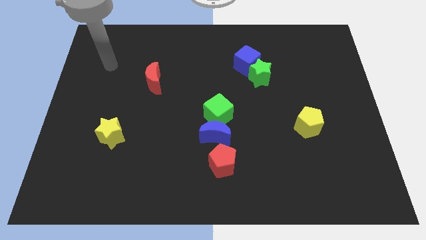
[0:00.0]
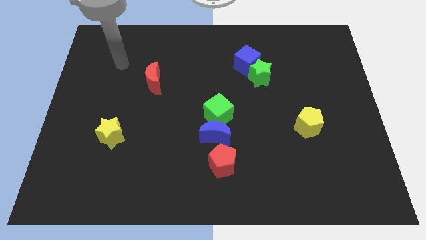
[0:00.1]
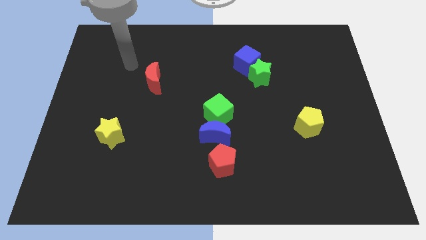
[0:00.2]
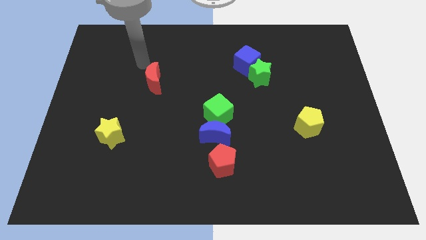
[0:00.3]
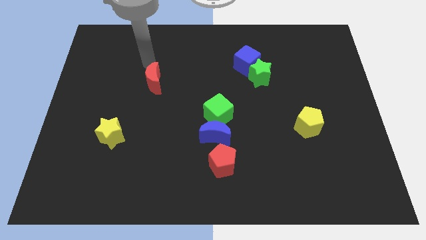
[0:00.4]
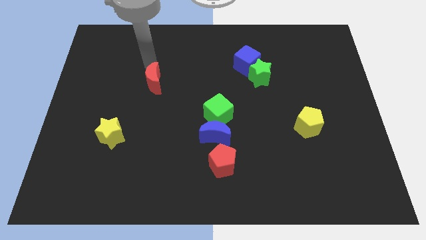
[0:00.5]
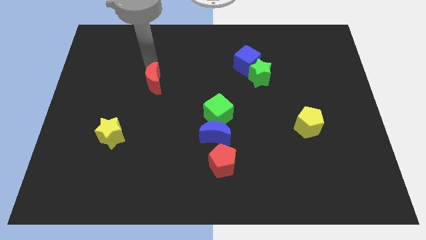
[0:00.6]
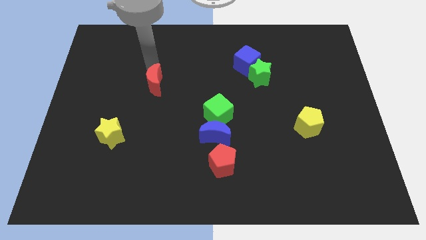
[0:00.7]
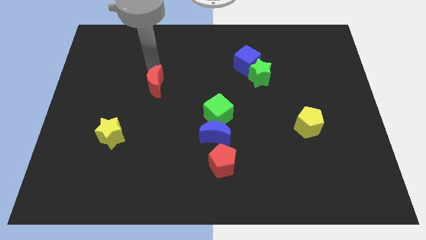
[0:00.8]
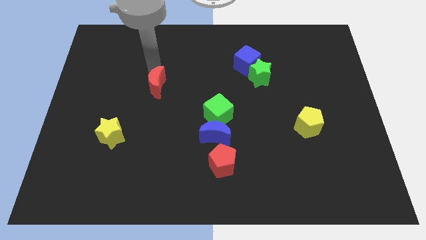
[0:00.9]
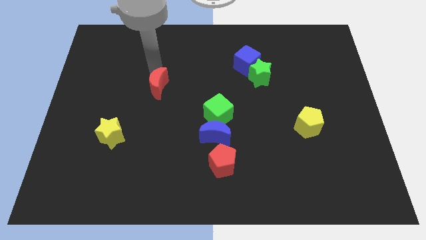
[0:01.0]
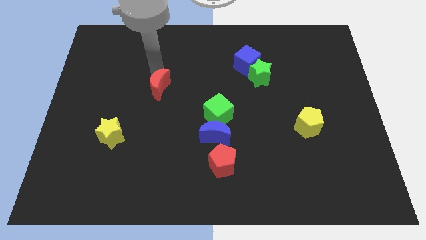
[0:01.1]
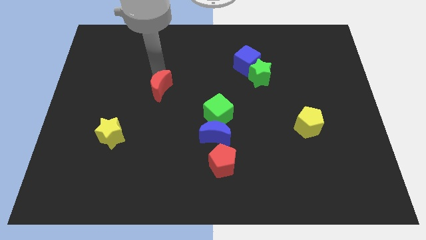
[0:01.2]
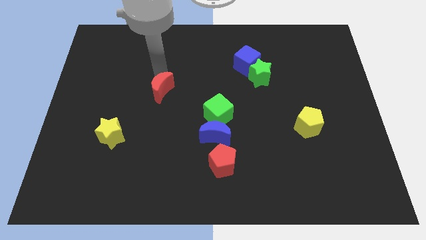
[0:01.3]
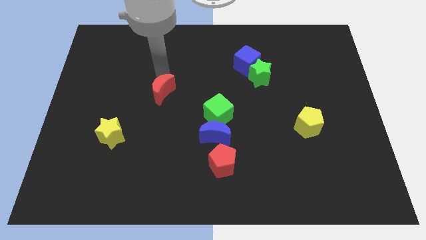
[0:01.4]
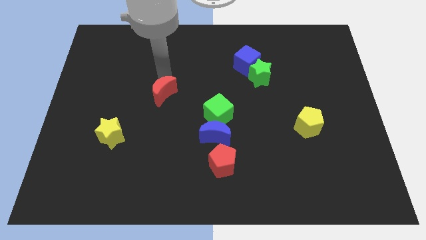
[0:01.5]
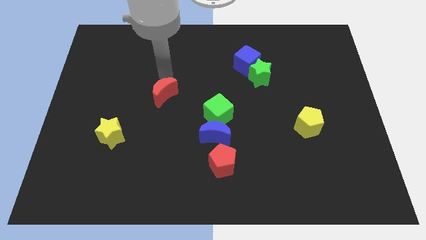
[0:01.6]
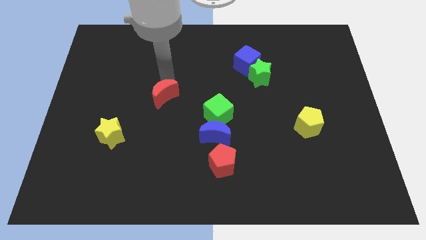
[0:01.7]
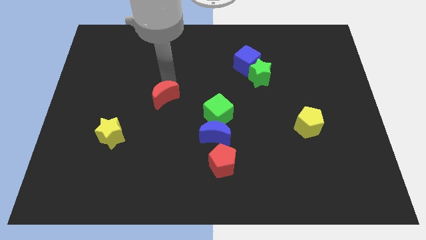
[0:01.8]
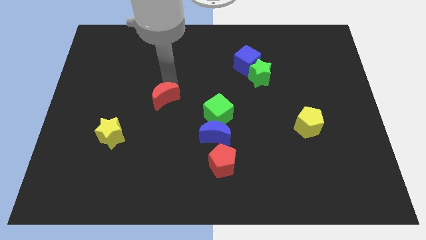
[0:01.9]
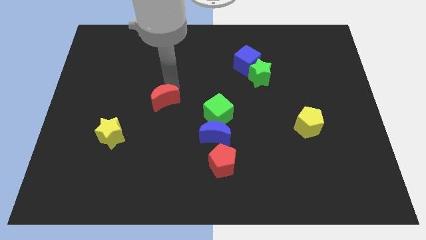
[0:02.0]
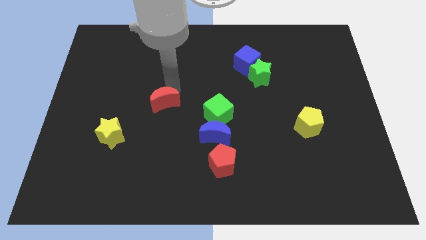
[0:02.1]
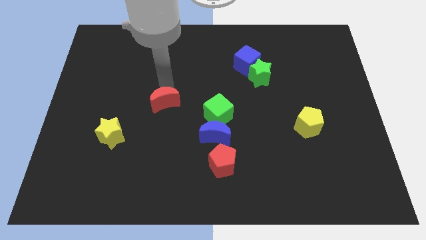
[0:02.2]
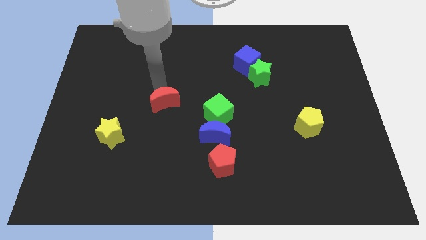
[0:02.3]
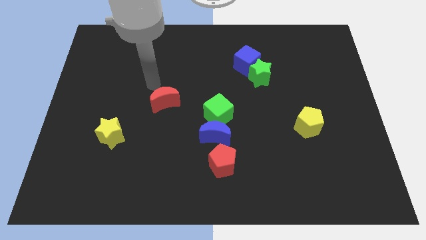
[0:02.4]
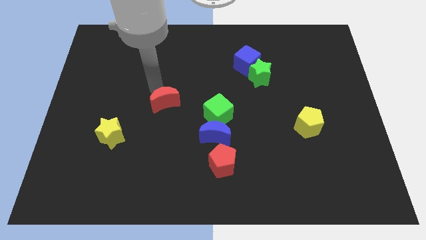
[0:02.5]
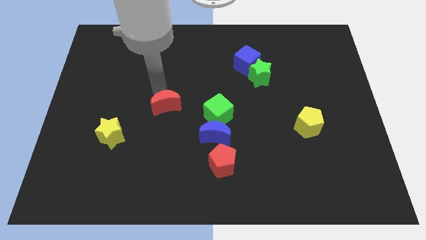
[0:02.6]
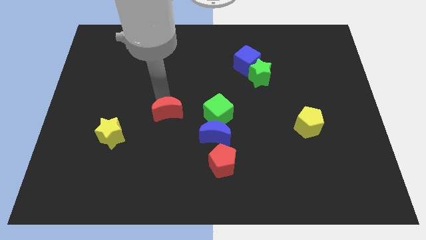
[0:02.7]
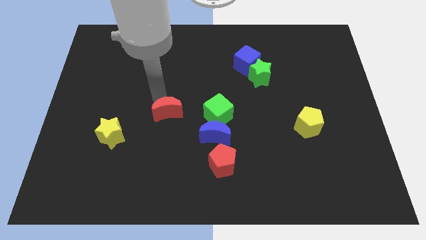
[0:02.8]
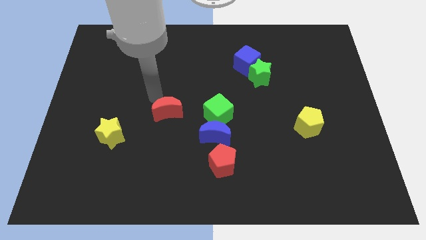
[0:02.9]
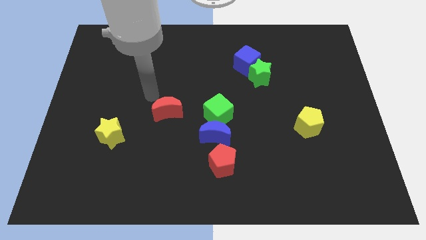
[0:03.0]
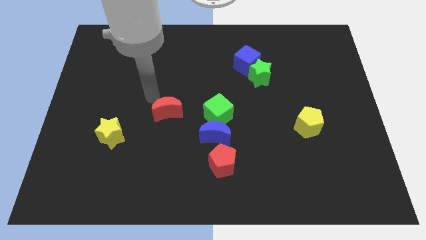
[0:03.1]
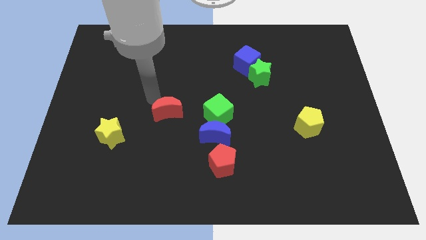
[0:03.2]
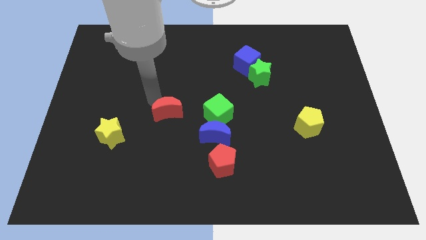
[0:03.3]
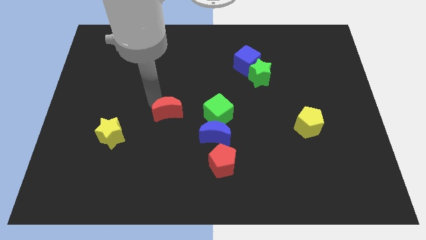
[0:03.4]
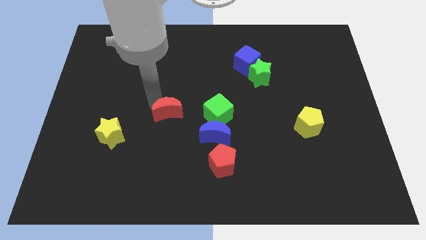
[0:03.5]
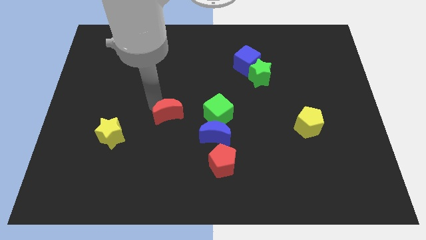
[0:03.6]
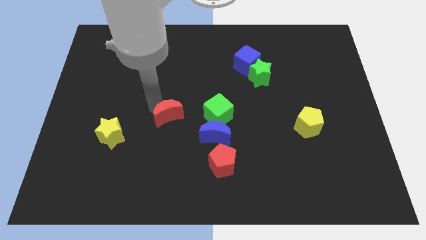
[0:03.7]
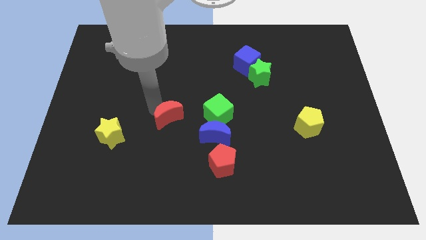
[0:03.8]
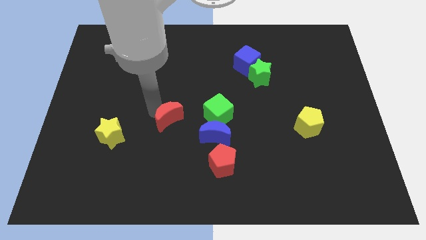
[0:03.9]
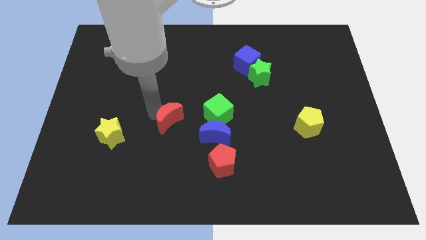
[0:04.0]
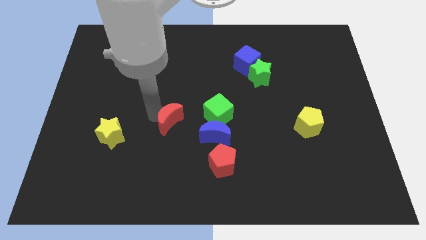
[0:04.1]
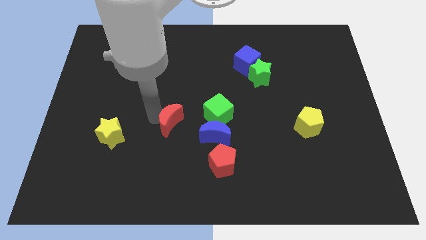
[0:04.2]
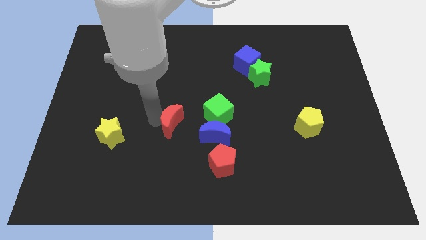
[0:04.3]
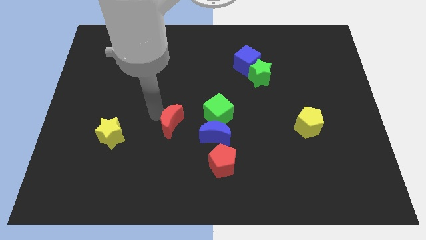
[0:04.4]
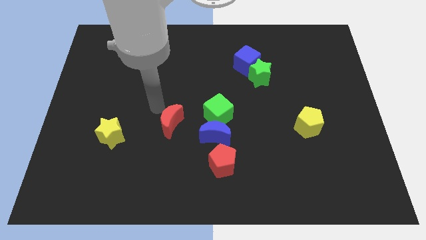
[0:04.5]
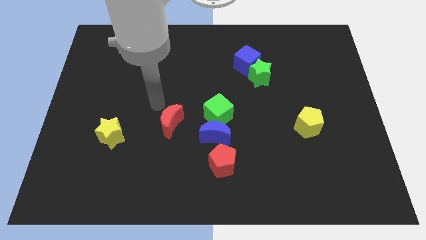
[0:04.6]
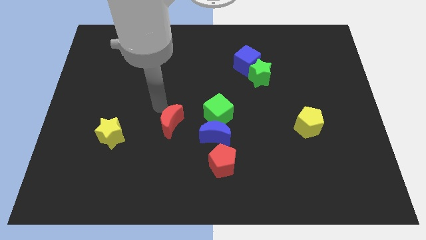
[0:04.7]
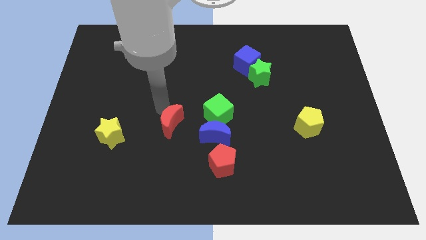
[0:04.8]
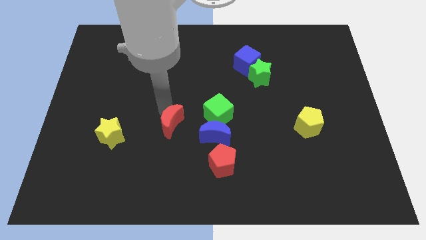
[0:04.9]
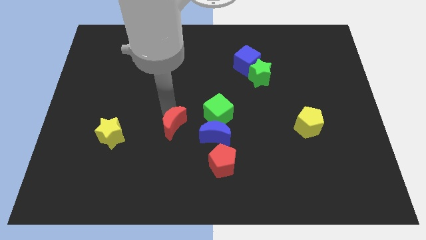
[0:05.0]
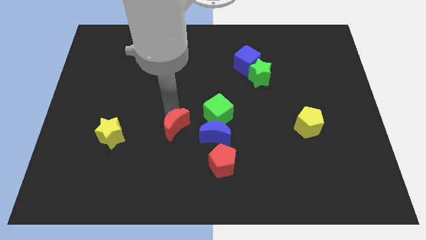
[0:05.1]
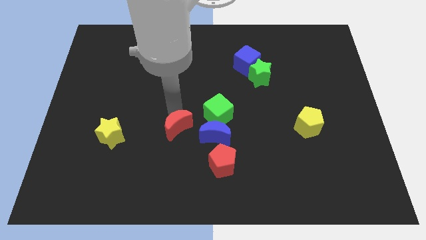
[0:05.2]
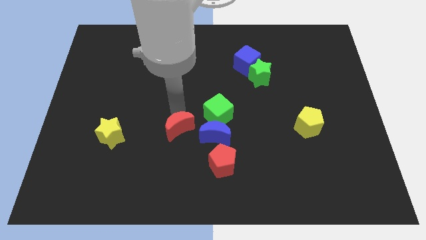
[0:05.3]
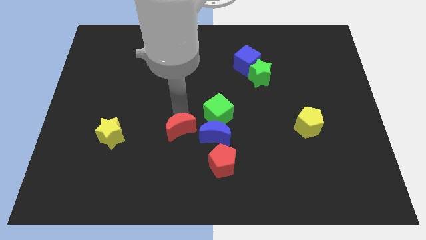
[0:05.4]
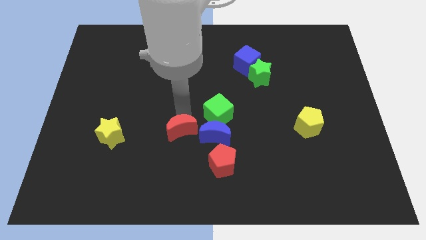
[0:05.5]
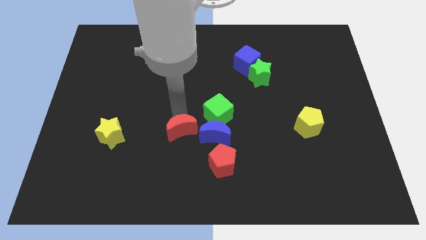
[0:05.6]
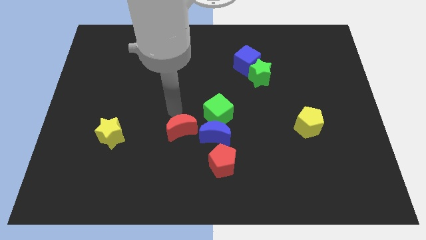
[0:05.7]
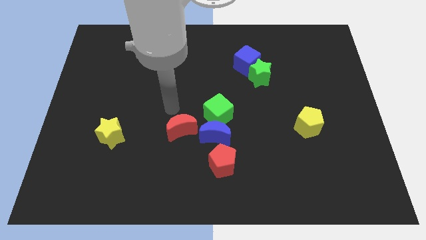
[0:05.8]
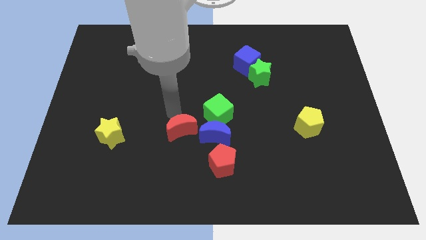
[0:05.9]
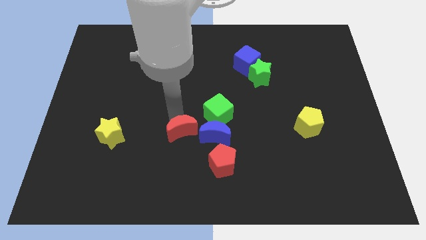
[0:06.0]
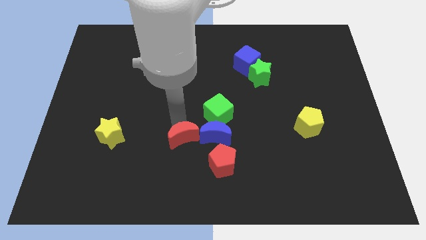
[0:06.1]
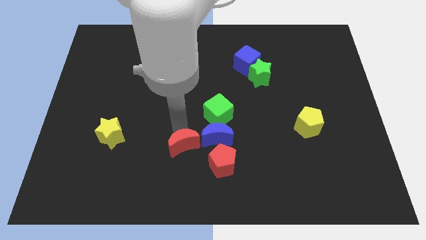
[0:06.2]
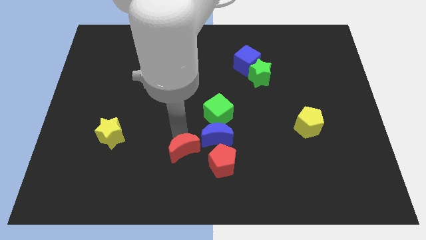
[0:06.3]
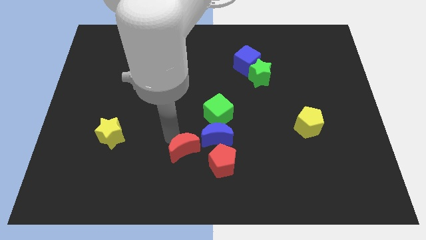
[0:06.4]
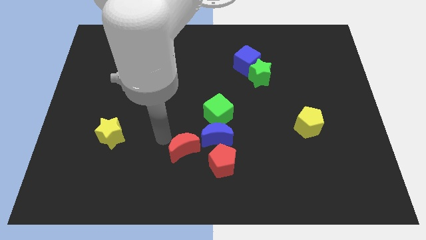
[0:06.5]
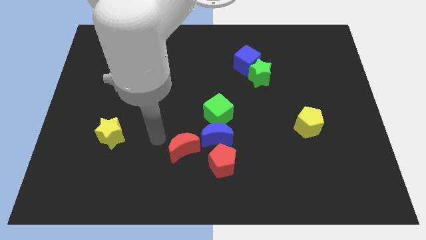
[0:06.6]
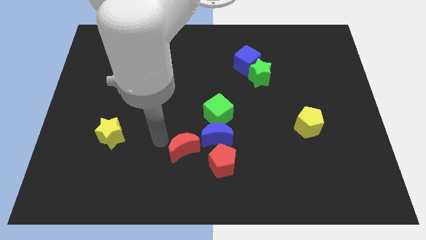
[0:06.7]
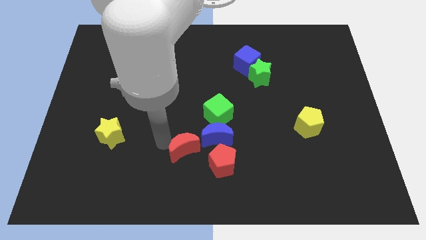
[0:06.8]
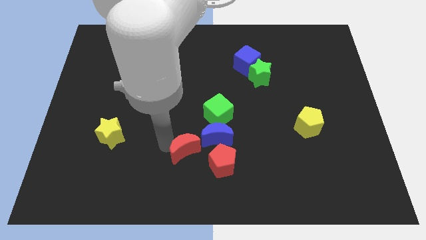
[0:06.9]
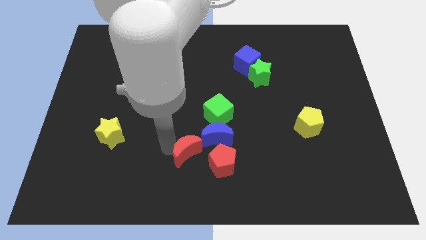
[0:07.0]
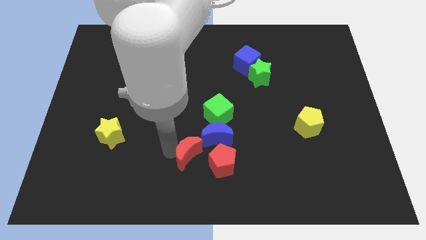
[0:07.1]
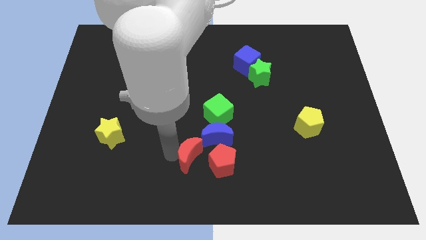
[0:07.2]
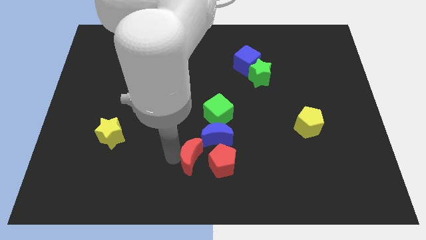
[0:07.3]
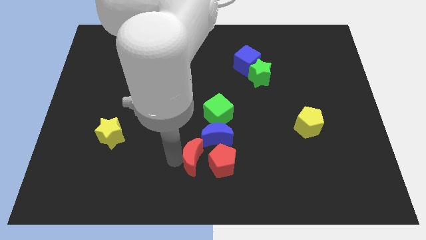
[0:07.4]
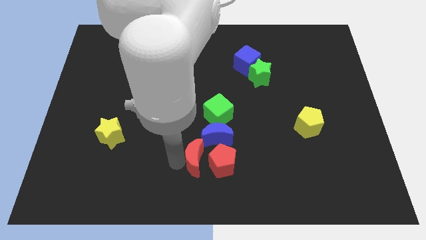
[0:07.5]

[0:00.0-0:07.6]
put the red moon next to the red pentagon

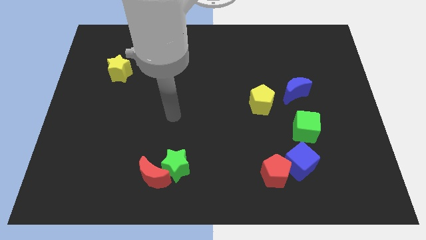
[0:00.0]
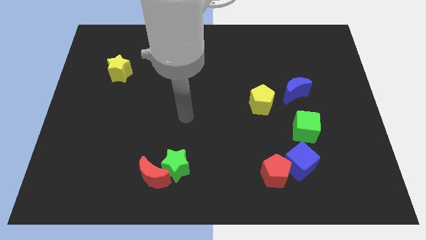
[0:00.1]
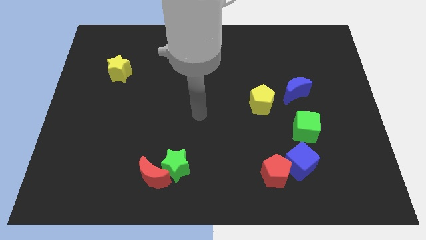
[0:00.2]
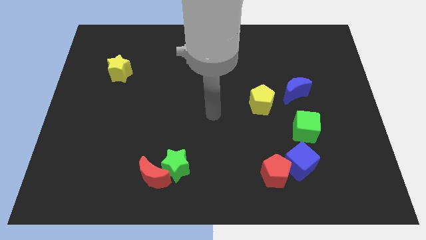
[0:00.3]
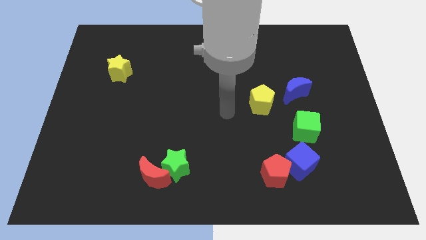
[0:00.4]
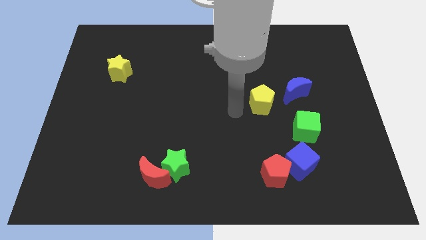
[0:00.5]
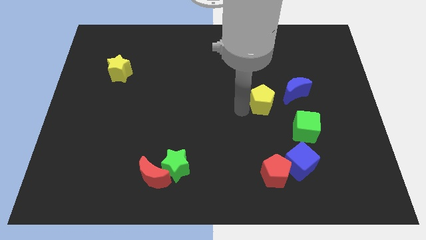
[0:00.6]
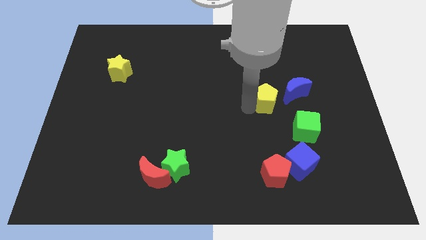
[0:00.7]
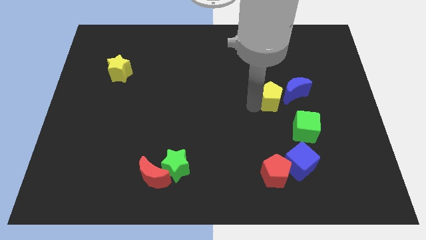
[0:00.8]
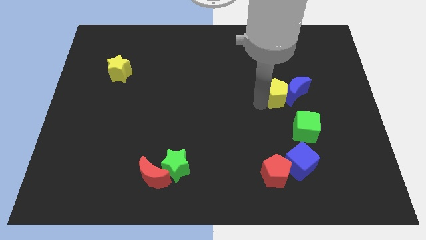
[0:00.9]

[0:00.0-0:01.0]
push the yellow pentagon close to the blue moon
